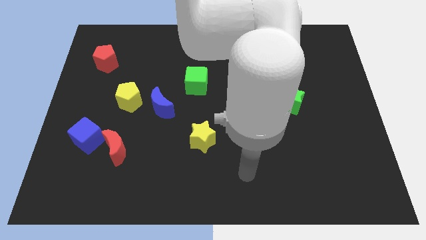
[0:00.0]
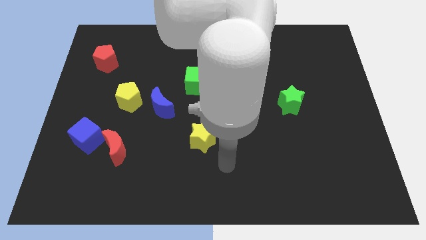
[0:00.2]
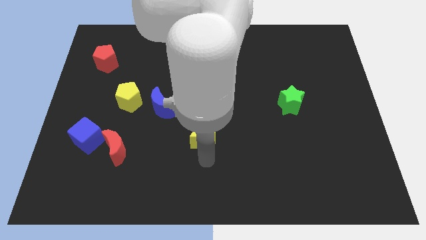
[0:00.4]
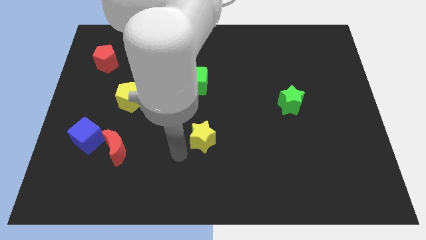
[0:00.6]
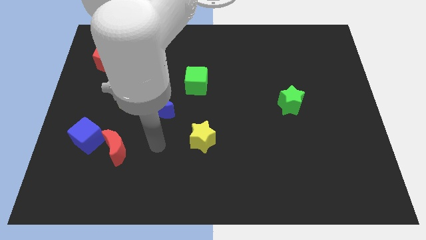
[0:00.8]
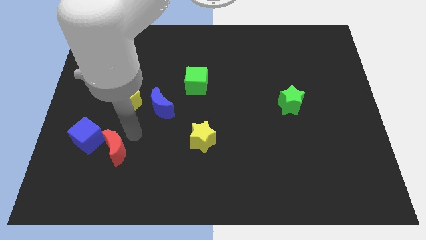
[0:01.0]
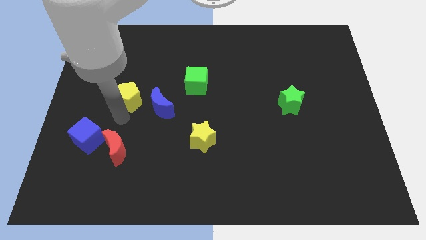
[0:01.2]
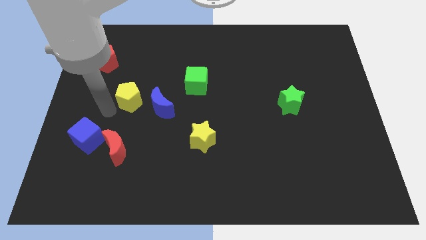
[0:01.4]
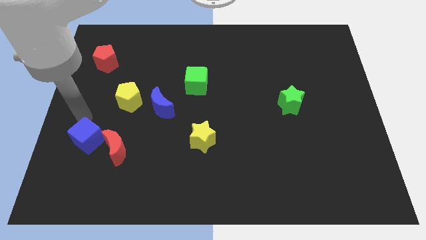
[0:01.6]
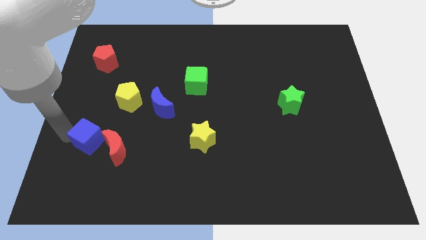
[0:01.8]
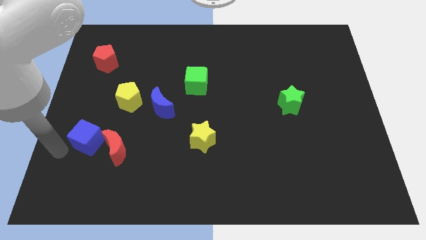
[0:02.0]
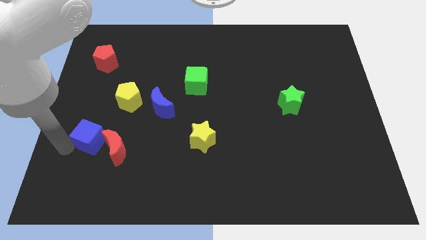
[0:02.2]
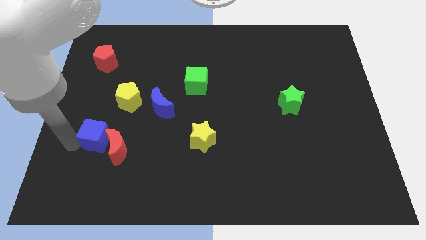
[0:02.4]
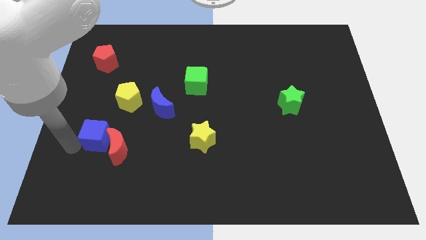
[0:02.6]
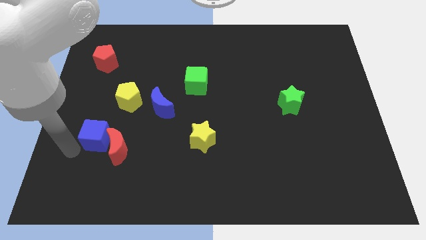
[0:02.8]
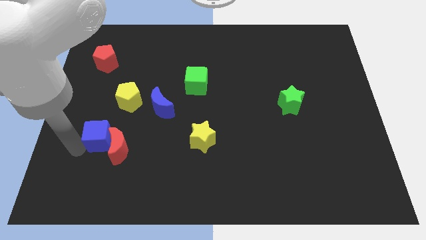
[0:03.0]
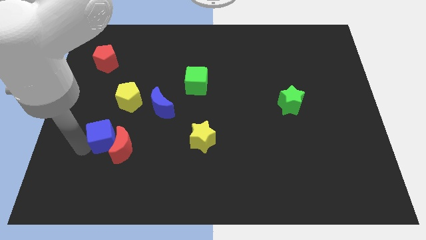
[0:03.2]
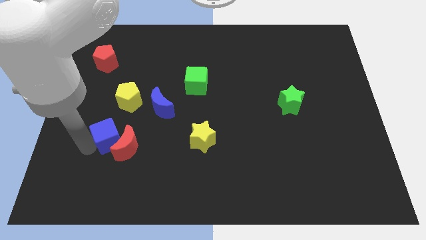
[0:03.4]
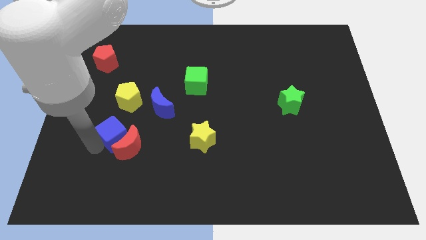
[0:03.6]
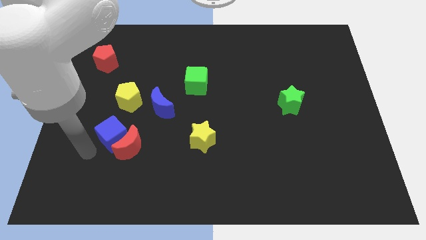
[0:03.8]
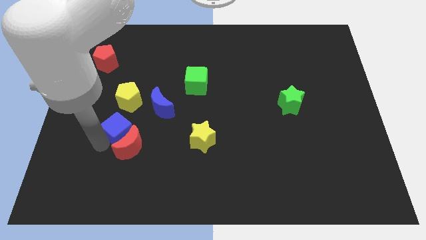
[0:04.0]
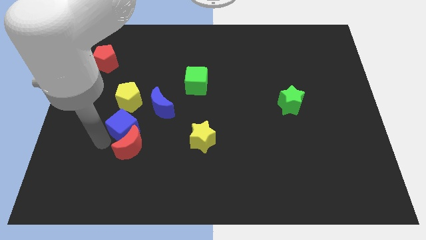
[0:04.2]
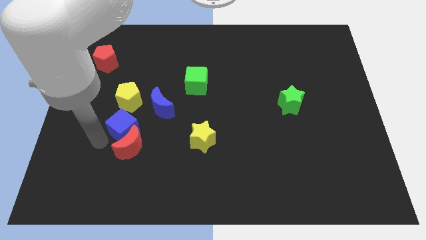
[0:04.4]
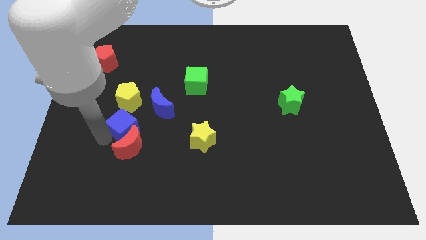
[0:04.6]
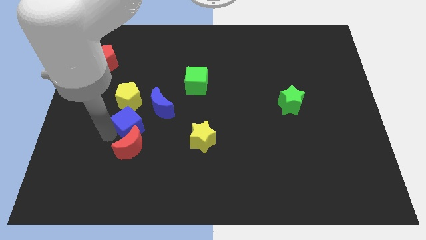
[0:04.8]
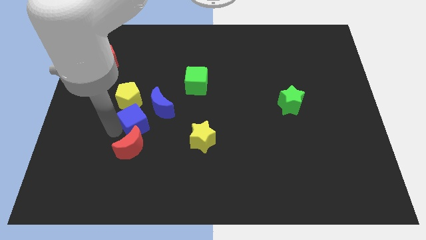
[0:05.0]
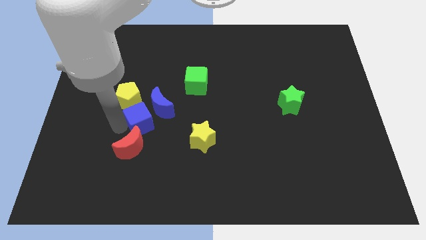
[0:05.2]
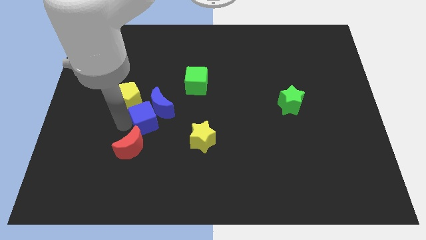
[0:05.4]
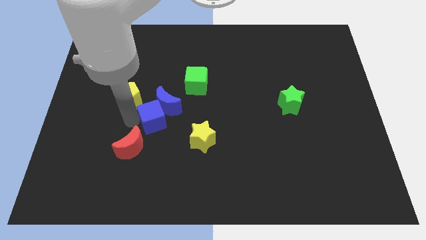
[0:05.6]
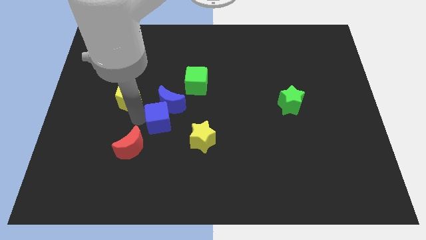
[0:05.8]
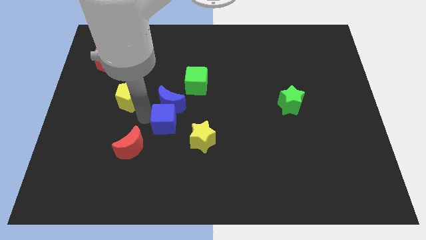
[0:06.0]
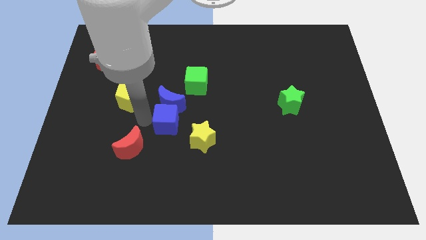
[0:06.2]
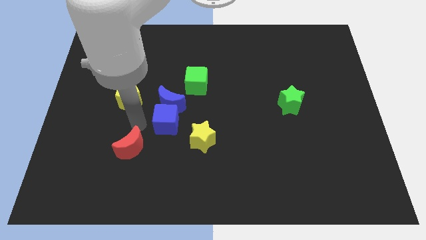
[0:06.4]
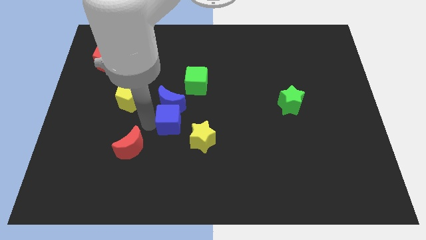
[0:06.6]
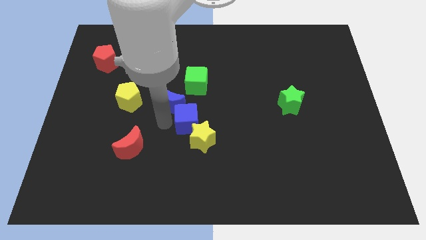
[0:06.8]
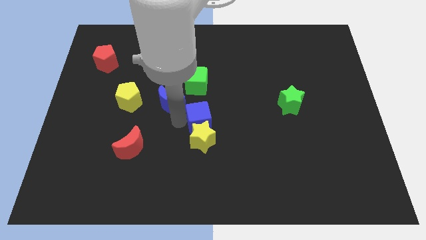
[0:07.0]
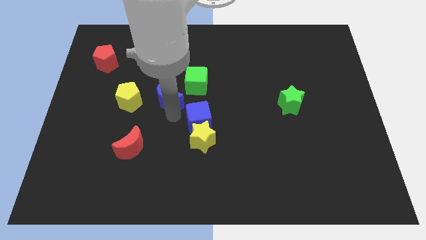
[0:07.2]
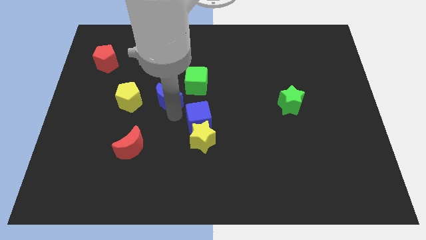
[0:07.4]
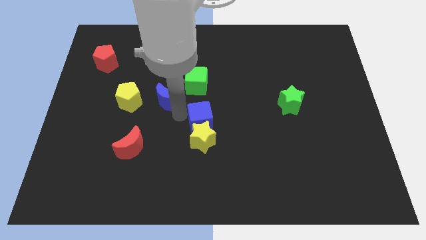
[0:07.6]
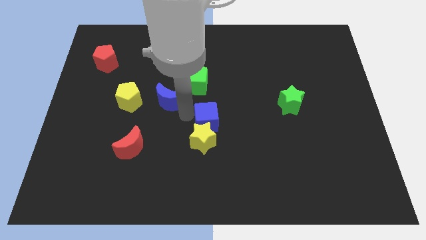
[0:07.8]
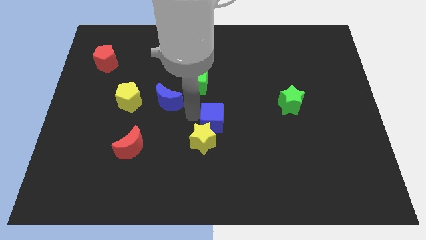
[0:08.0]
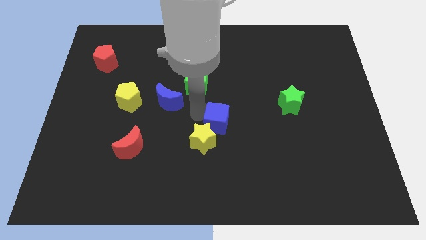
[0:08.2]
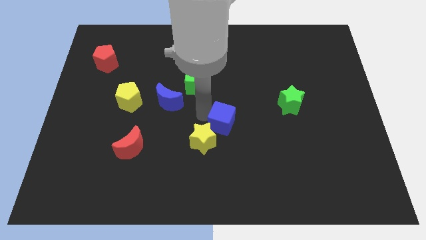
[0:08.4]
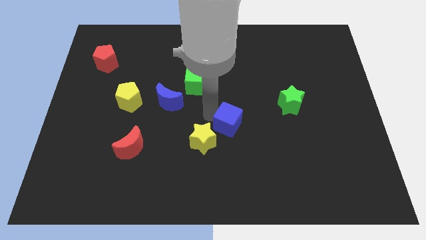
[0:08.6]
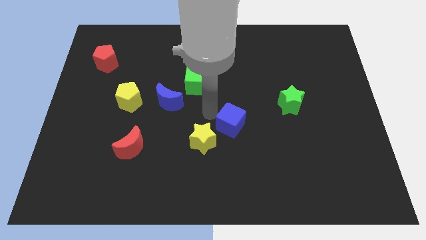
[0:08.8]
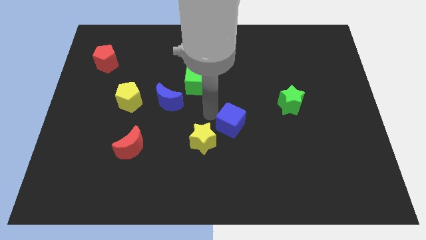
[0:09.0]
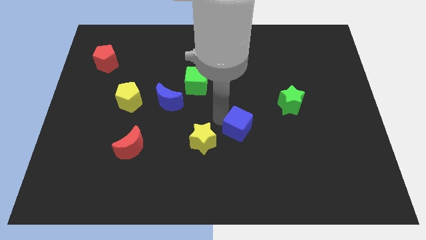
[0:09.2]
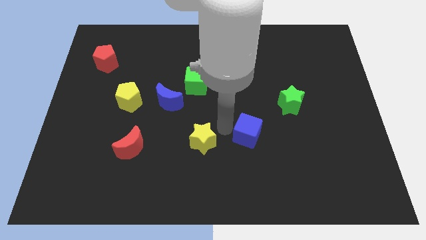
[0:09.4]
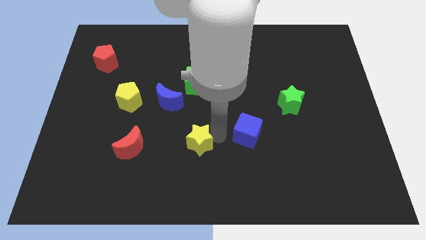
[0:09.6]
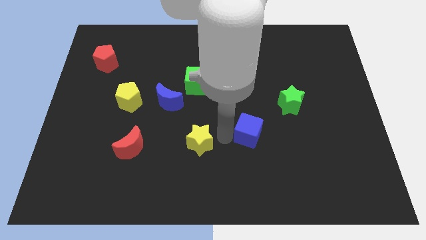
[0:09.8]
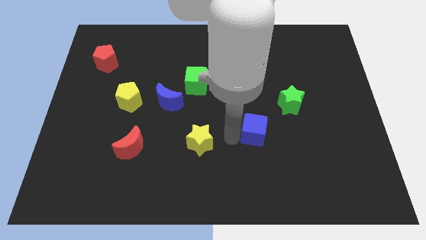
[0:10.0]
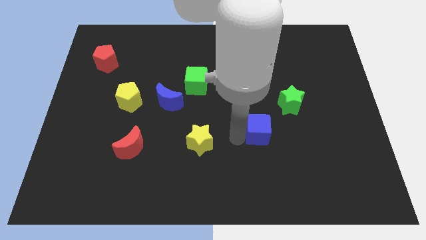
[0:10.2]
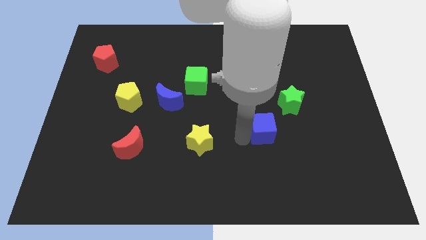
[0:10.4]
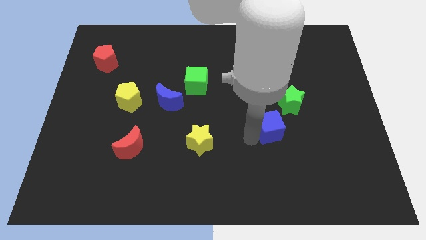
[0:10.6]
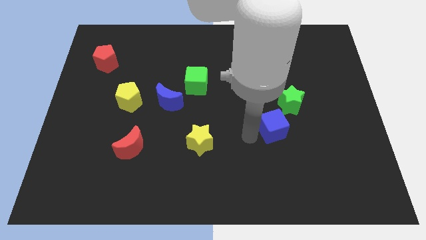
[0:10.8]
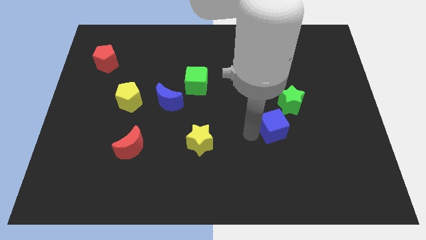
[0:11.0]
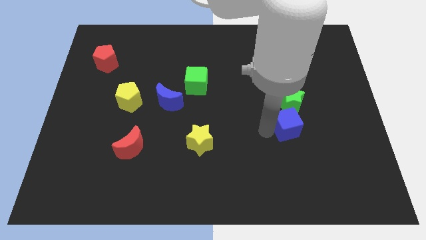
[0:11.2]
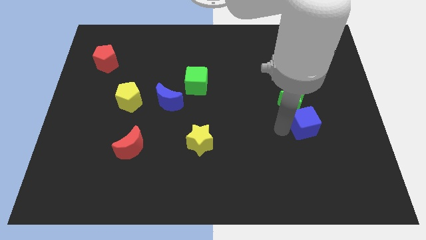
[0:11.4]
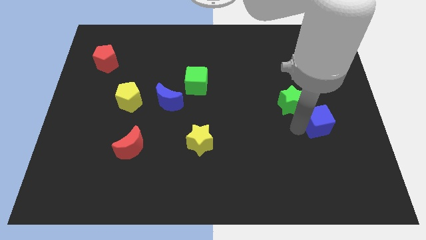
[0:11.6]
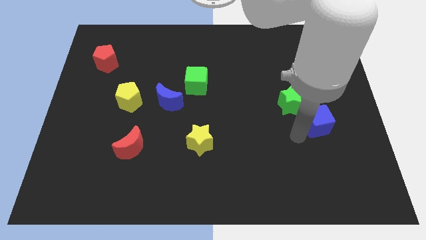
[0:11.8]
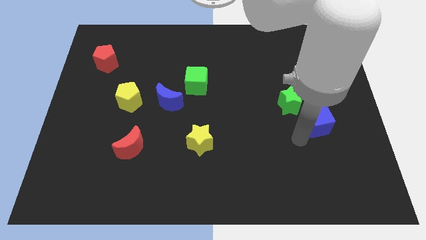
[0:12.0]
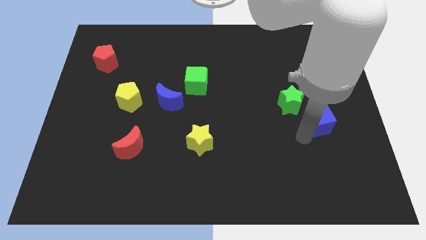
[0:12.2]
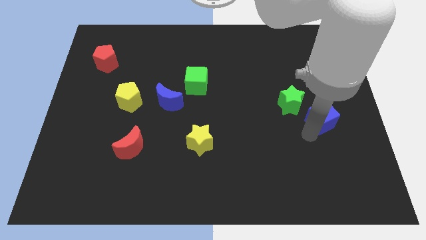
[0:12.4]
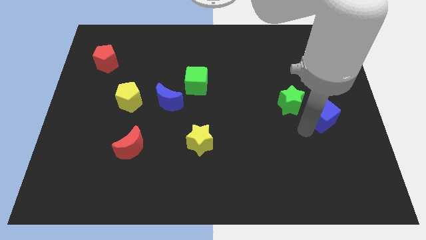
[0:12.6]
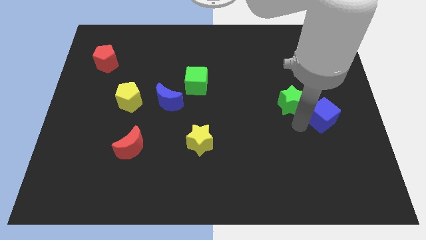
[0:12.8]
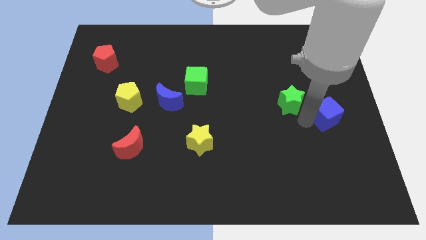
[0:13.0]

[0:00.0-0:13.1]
slide the blue cube to the right side
